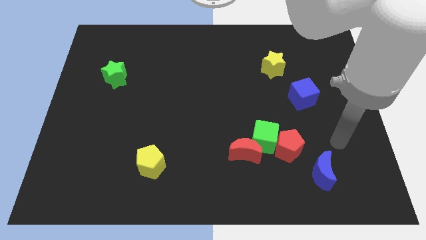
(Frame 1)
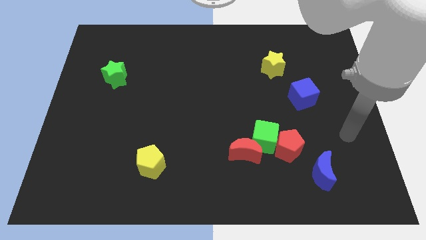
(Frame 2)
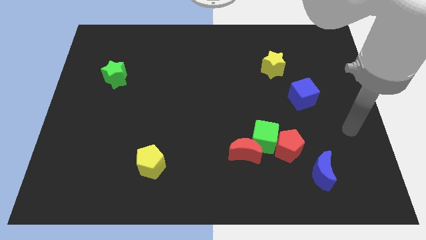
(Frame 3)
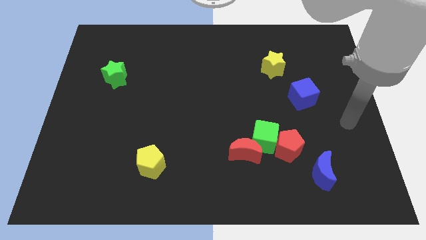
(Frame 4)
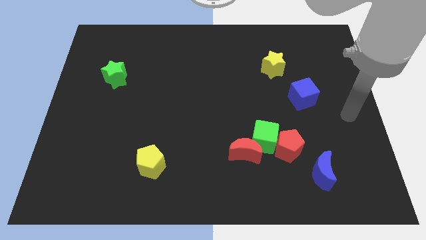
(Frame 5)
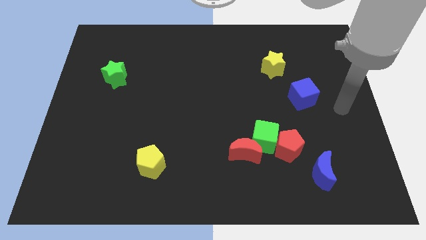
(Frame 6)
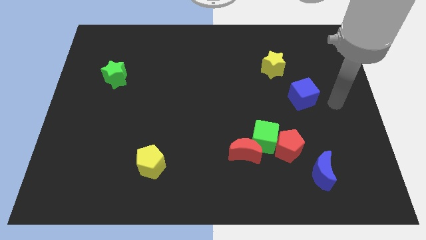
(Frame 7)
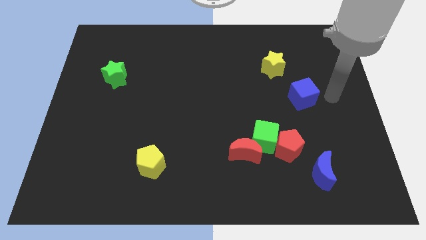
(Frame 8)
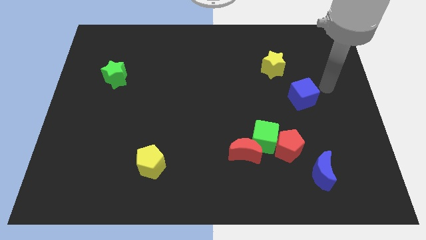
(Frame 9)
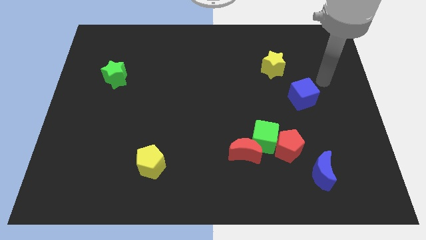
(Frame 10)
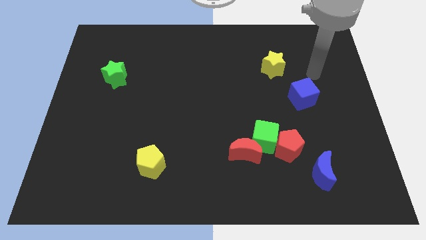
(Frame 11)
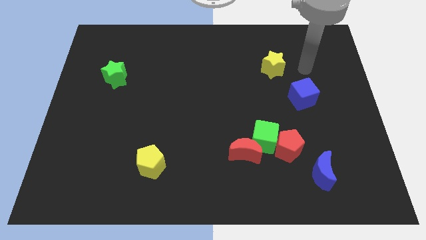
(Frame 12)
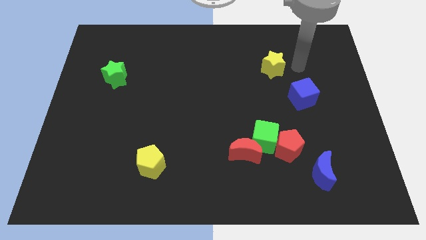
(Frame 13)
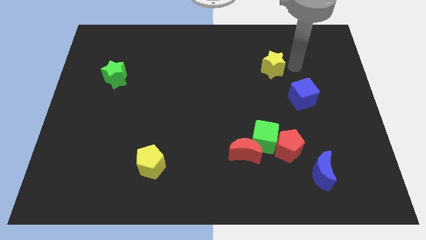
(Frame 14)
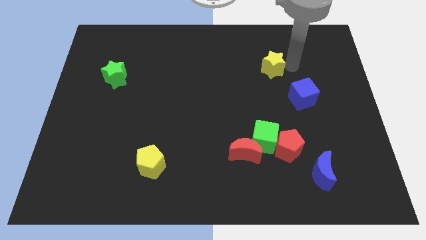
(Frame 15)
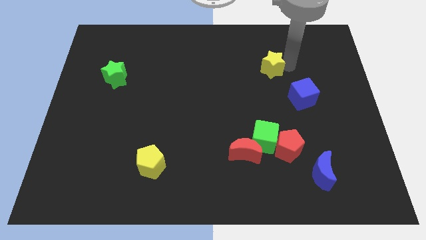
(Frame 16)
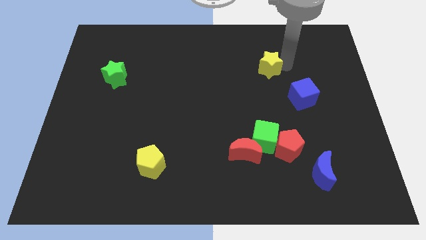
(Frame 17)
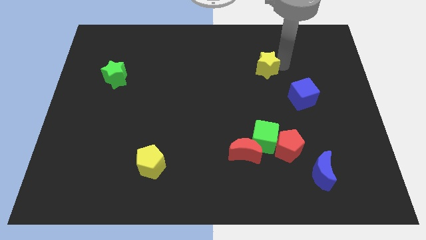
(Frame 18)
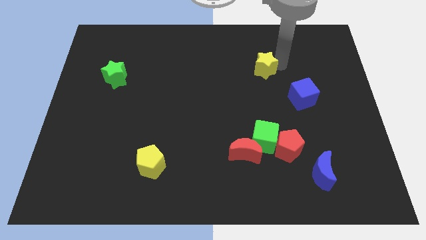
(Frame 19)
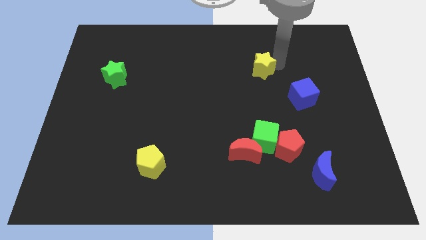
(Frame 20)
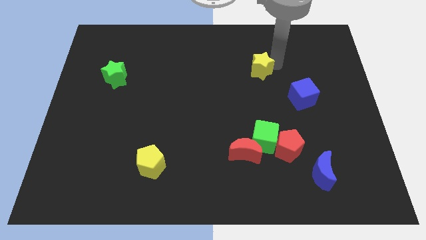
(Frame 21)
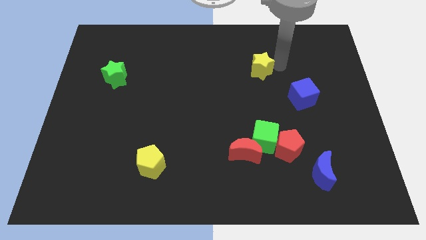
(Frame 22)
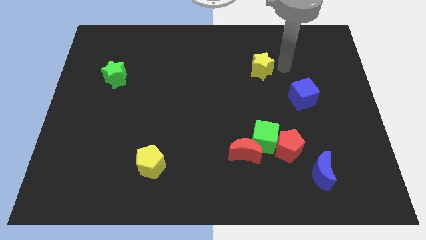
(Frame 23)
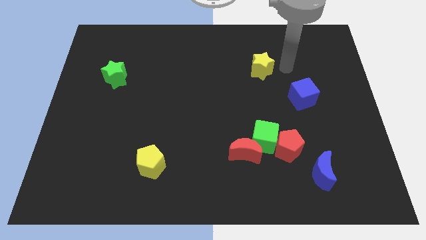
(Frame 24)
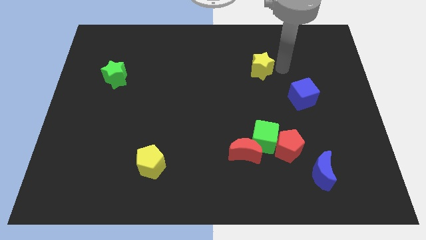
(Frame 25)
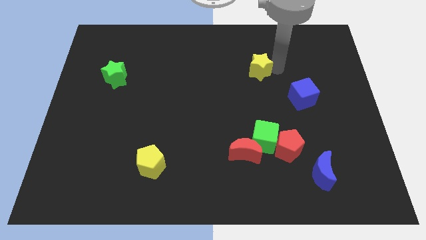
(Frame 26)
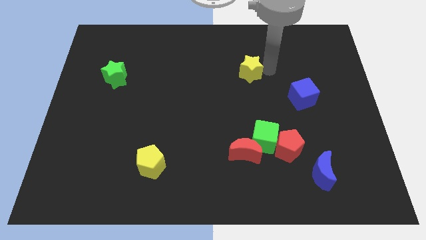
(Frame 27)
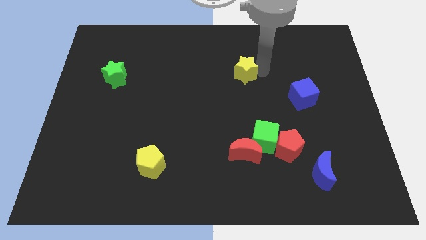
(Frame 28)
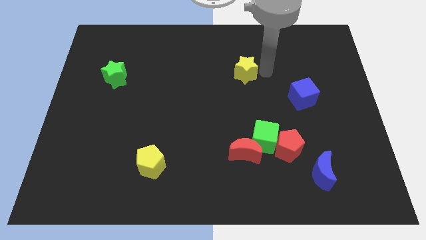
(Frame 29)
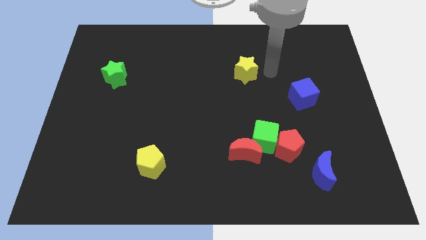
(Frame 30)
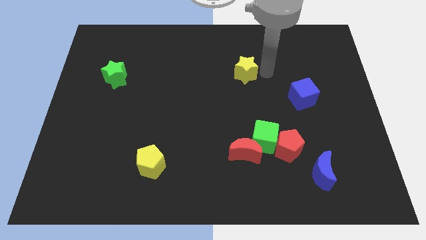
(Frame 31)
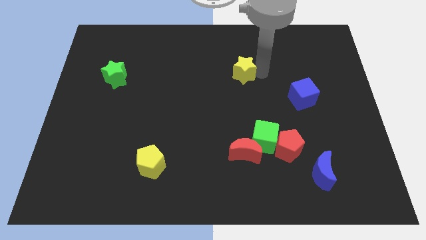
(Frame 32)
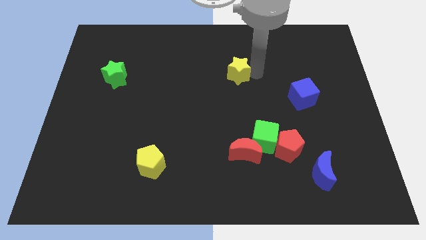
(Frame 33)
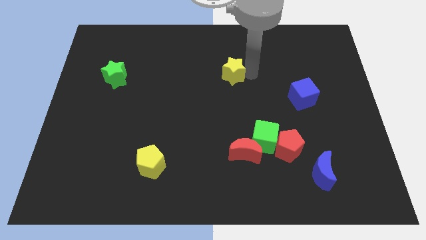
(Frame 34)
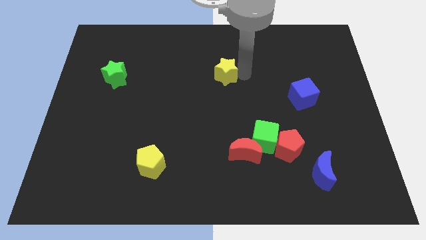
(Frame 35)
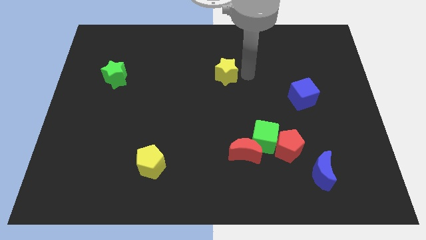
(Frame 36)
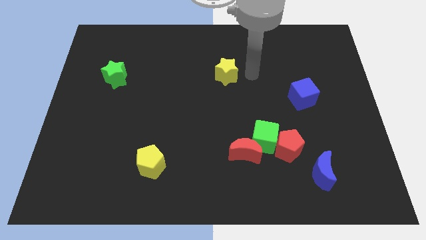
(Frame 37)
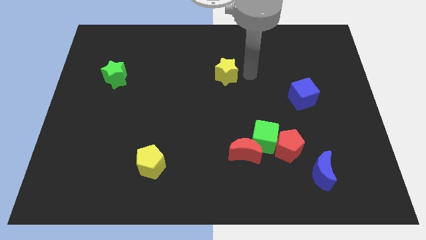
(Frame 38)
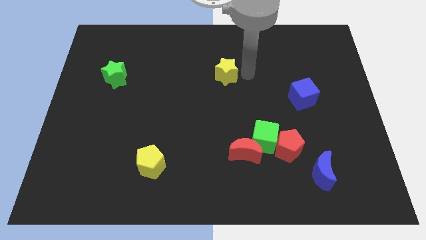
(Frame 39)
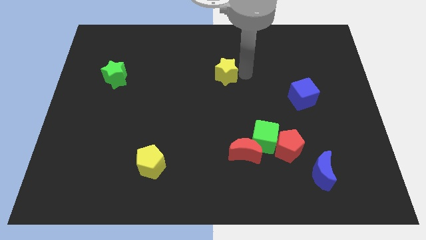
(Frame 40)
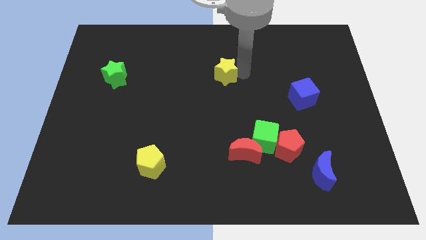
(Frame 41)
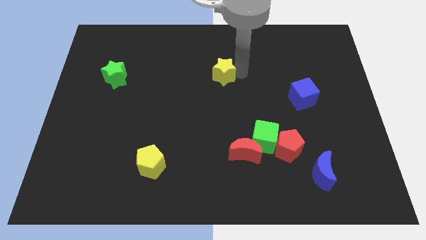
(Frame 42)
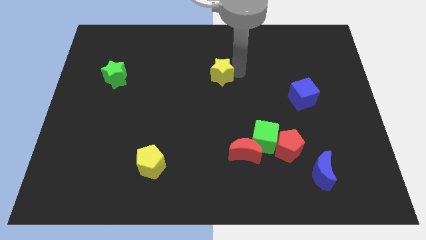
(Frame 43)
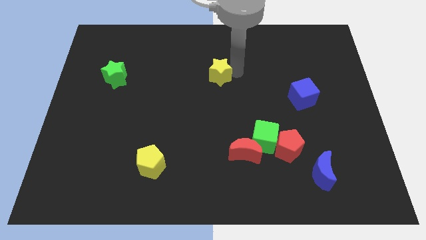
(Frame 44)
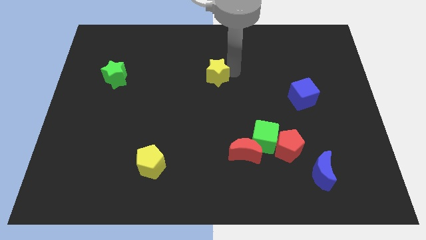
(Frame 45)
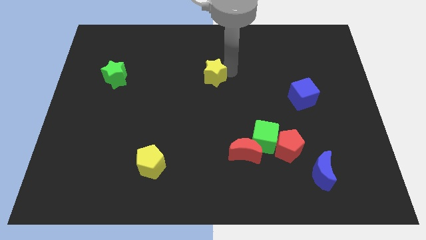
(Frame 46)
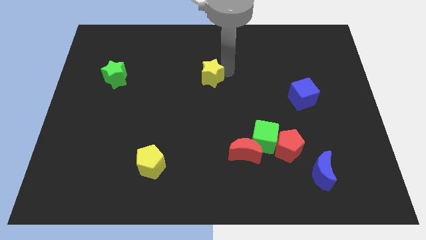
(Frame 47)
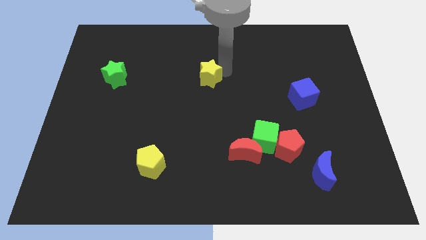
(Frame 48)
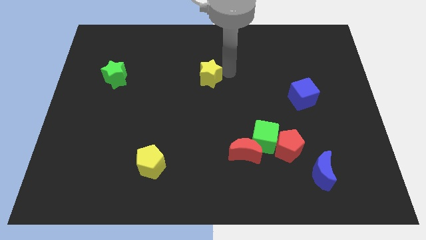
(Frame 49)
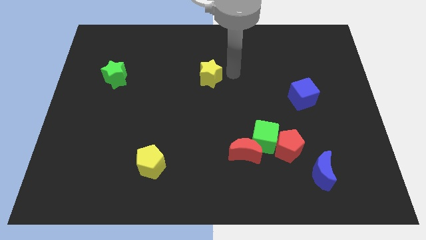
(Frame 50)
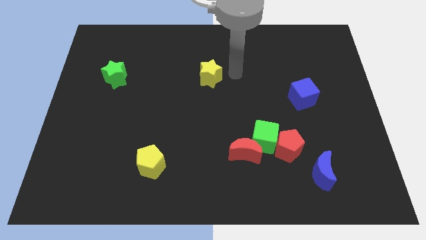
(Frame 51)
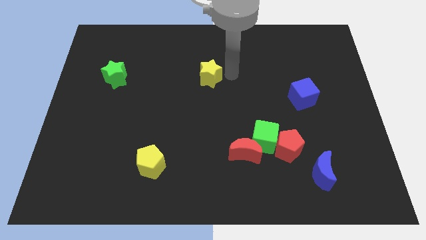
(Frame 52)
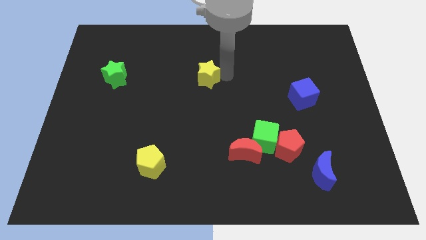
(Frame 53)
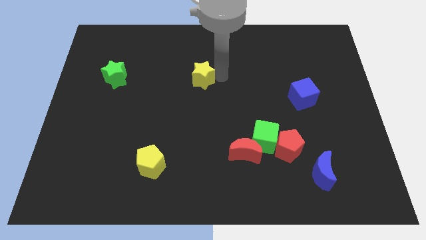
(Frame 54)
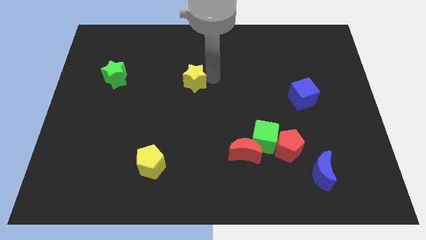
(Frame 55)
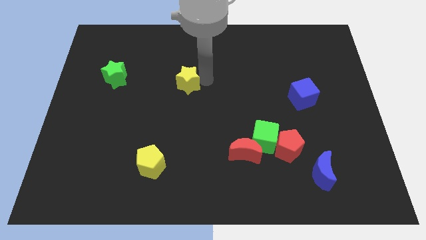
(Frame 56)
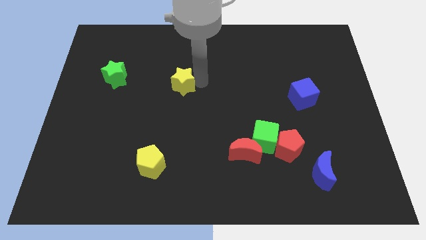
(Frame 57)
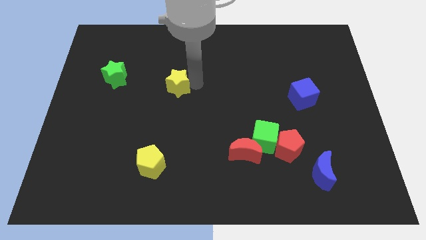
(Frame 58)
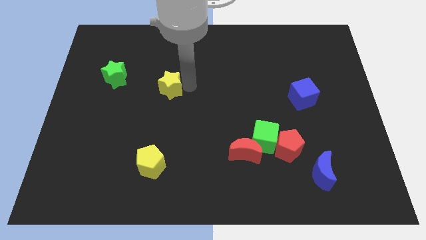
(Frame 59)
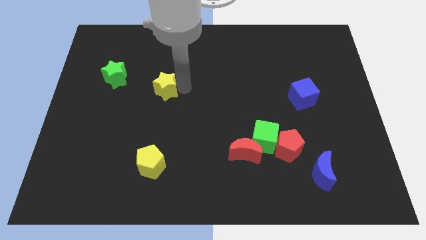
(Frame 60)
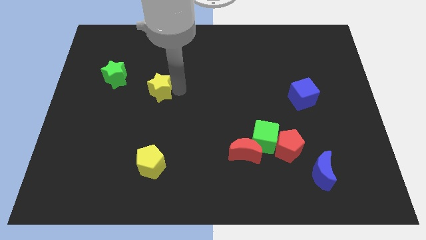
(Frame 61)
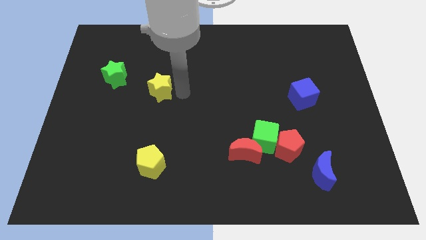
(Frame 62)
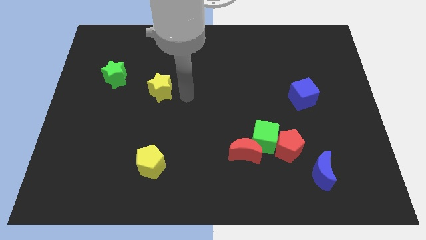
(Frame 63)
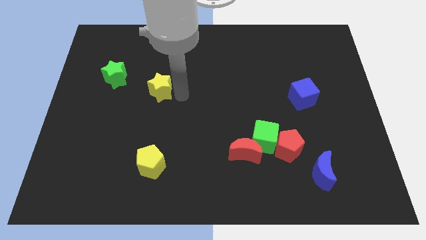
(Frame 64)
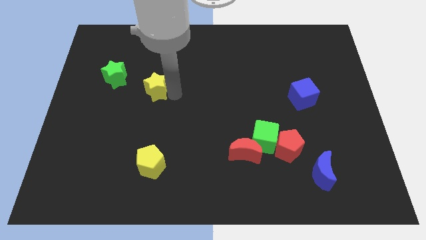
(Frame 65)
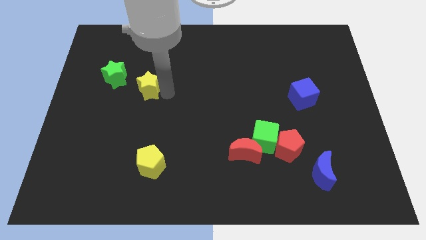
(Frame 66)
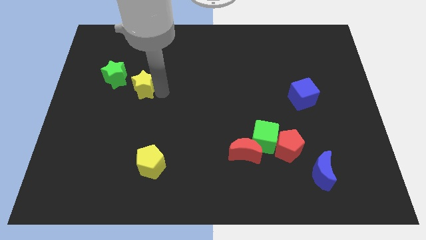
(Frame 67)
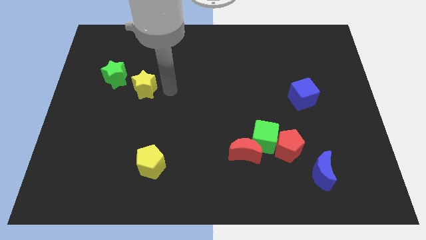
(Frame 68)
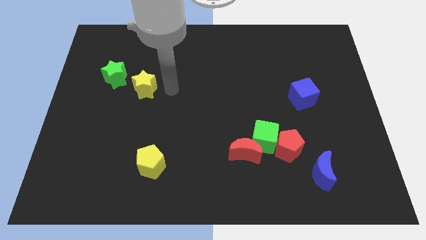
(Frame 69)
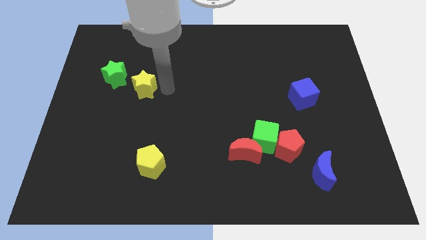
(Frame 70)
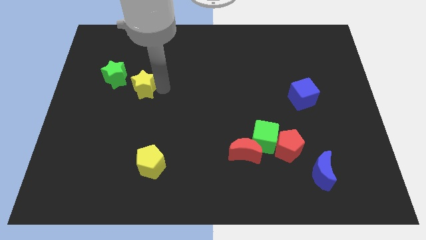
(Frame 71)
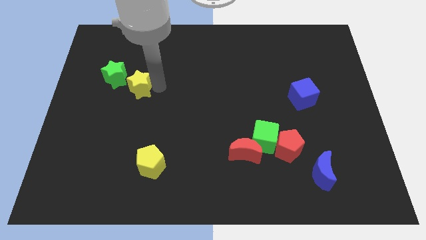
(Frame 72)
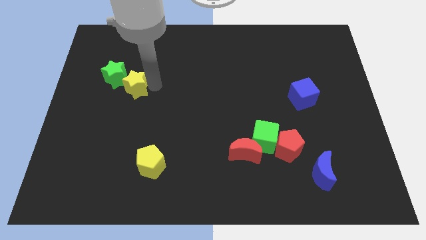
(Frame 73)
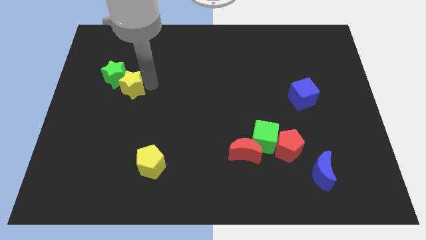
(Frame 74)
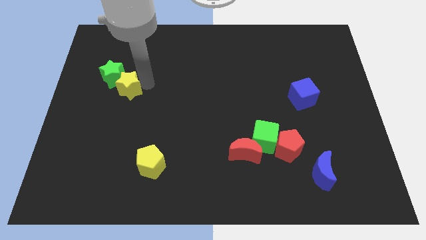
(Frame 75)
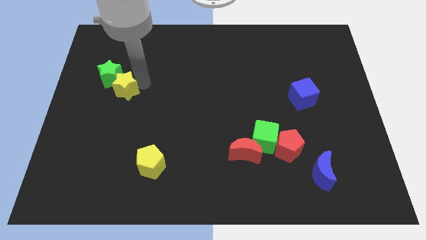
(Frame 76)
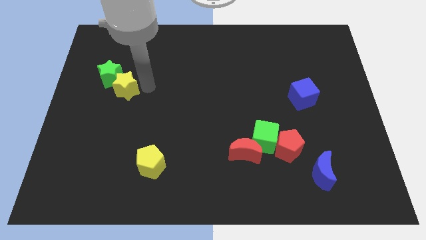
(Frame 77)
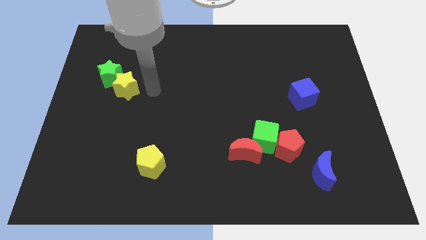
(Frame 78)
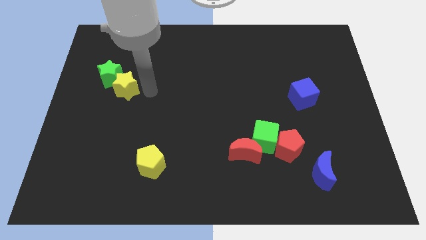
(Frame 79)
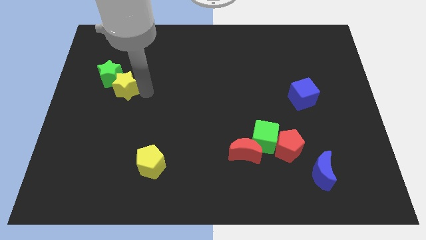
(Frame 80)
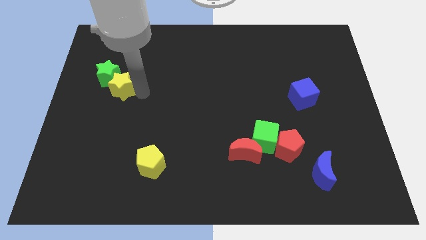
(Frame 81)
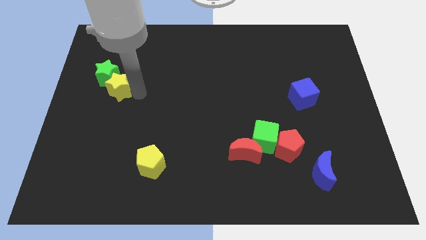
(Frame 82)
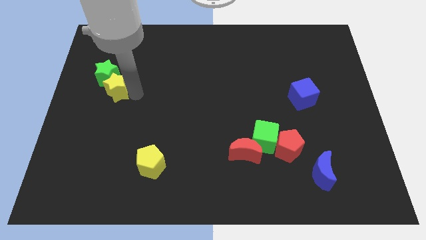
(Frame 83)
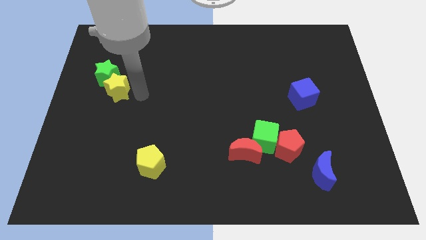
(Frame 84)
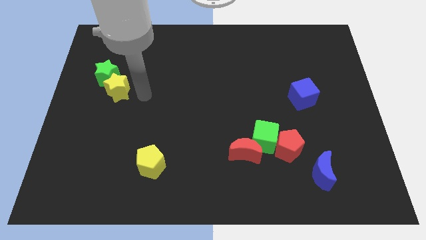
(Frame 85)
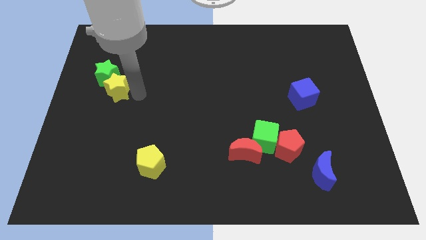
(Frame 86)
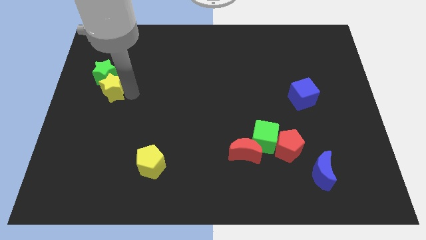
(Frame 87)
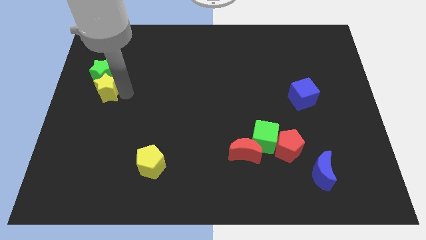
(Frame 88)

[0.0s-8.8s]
slide the yellow star to the left side
